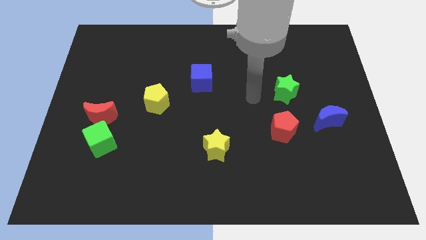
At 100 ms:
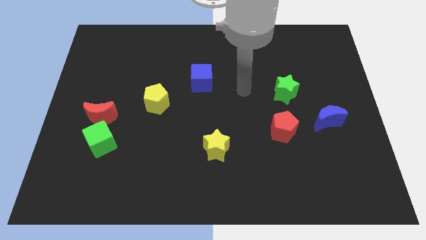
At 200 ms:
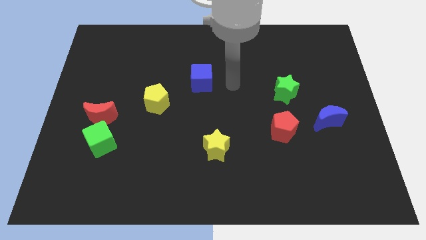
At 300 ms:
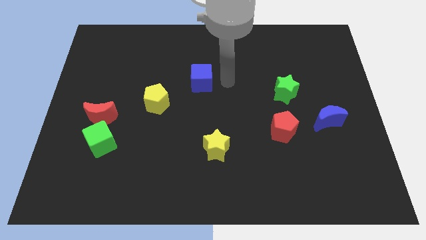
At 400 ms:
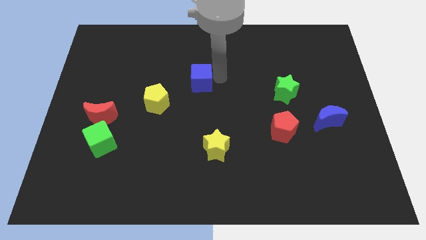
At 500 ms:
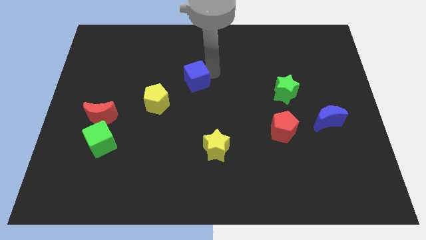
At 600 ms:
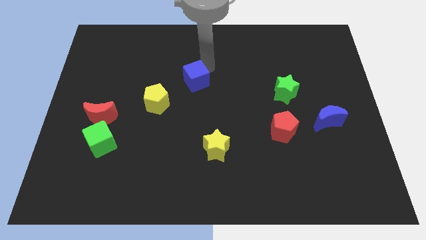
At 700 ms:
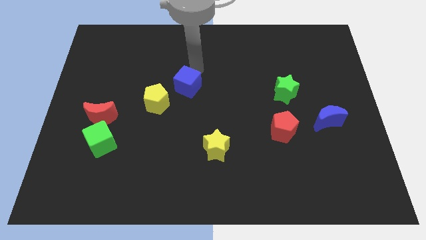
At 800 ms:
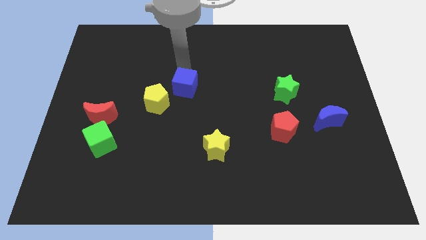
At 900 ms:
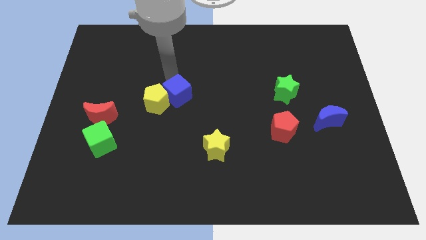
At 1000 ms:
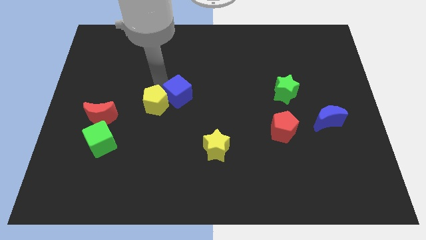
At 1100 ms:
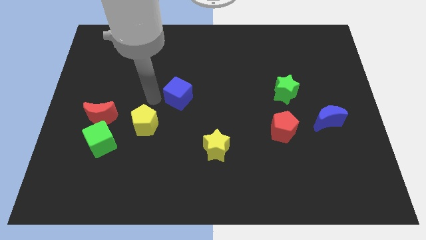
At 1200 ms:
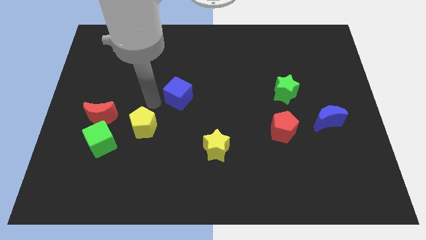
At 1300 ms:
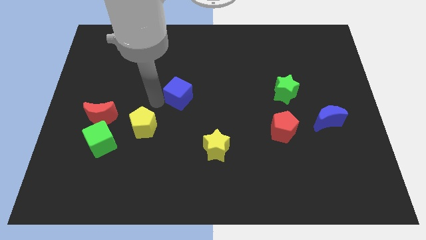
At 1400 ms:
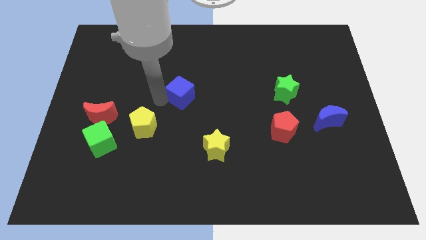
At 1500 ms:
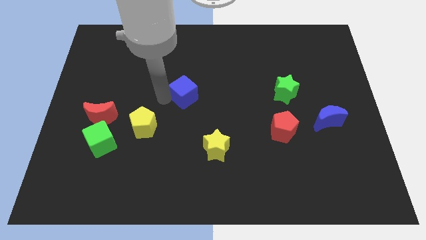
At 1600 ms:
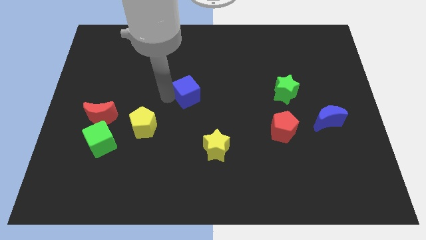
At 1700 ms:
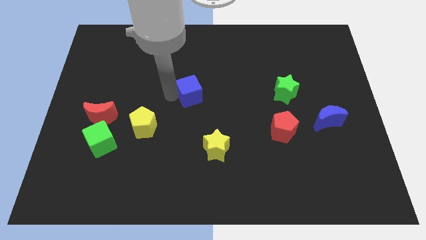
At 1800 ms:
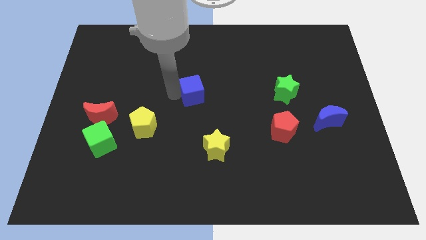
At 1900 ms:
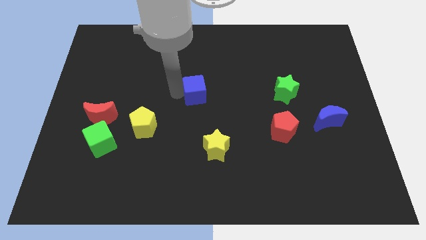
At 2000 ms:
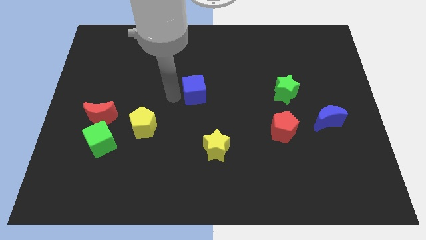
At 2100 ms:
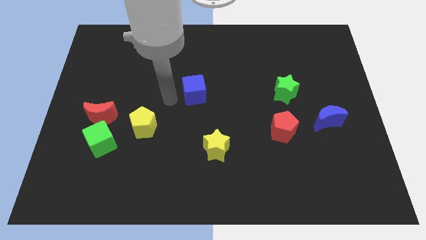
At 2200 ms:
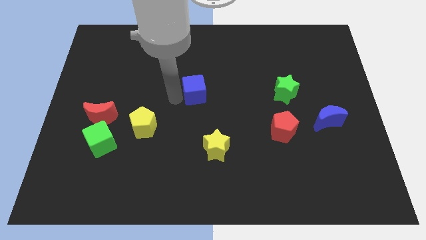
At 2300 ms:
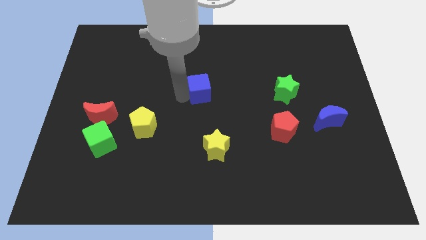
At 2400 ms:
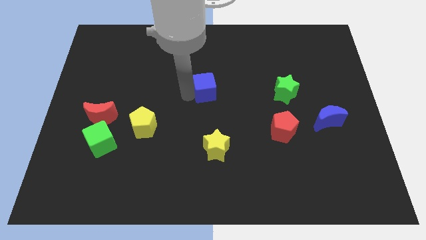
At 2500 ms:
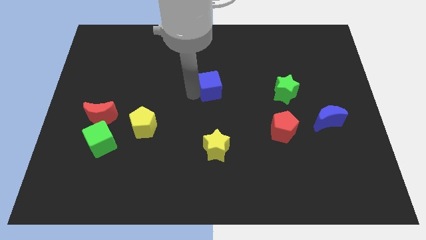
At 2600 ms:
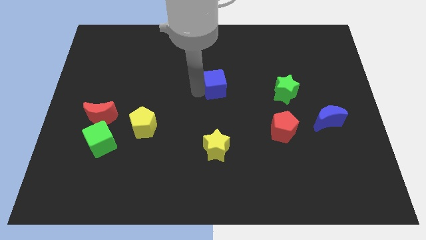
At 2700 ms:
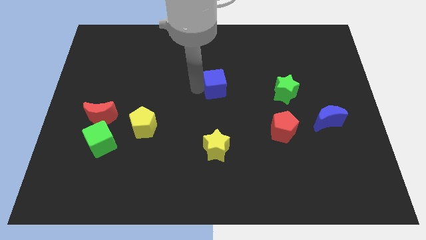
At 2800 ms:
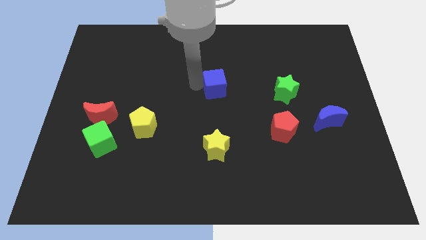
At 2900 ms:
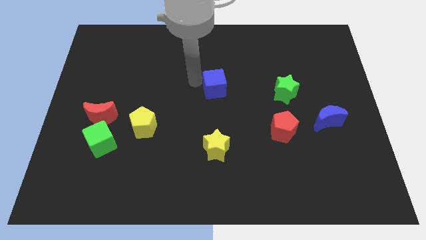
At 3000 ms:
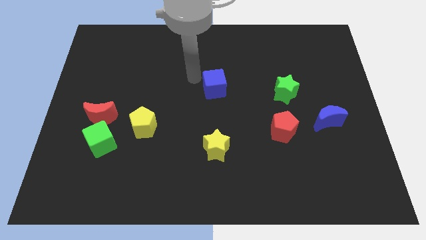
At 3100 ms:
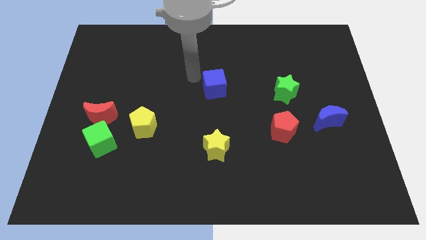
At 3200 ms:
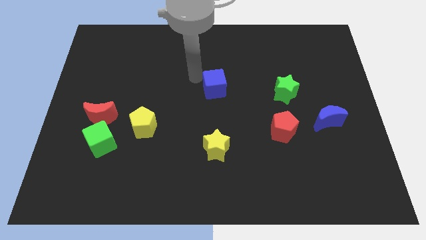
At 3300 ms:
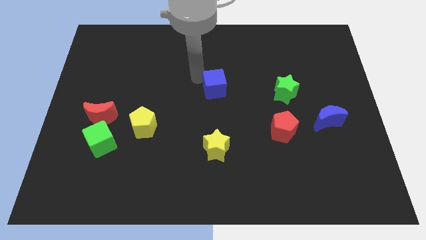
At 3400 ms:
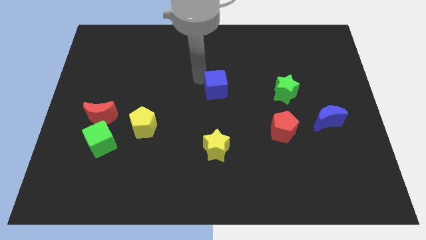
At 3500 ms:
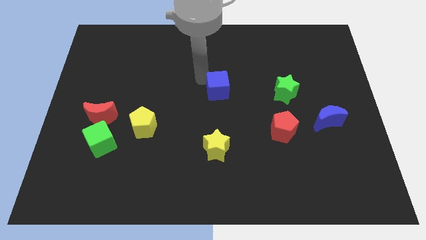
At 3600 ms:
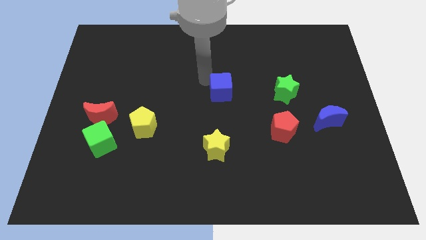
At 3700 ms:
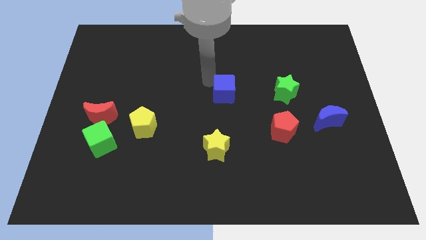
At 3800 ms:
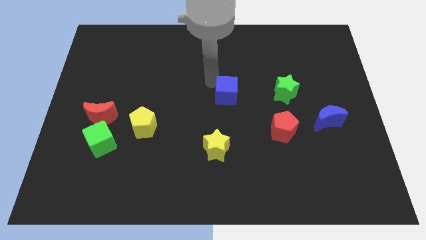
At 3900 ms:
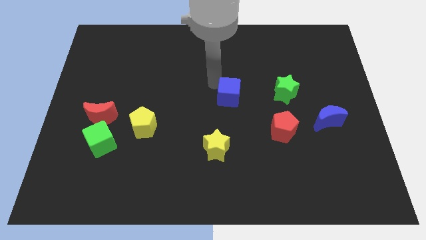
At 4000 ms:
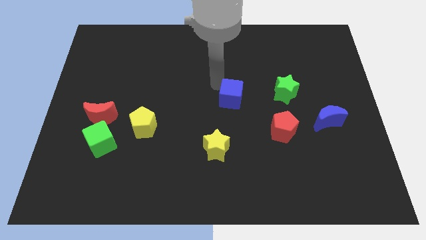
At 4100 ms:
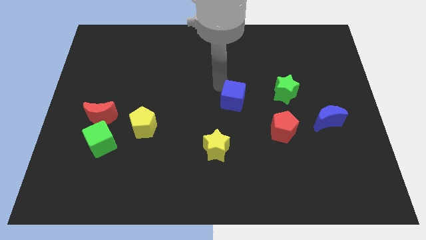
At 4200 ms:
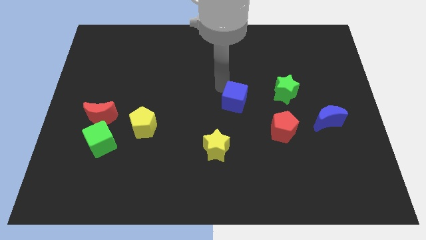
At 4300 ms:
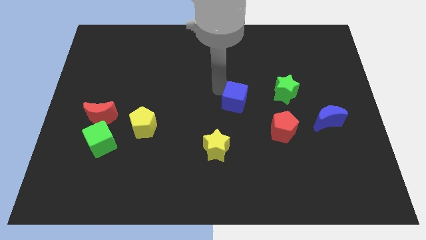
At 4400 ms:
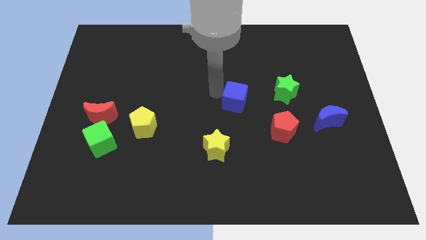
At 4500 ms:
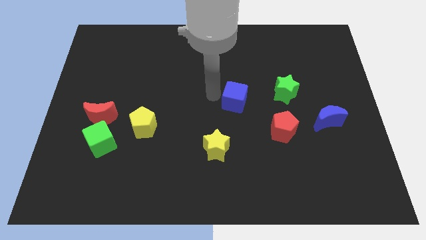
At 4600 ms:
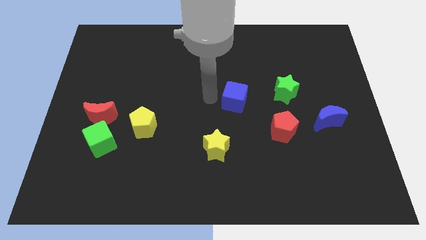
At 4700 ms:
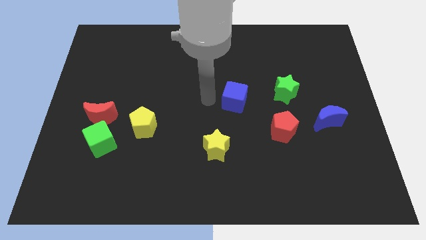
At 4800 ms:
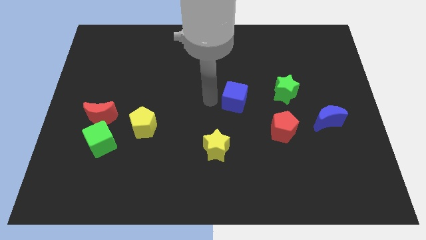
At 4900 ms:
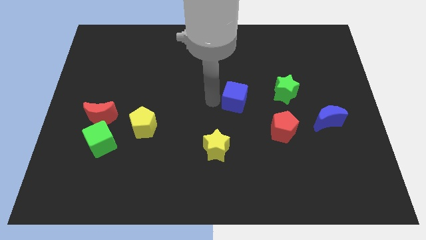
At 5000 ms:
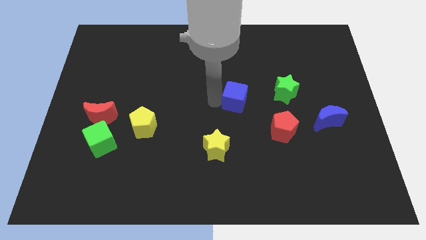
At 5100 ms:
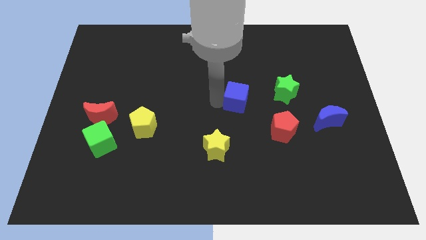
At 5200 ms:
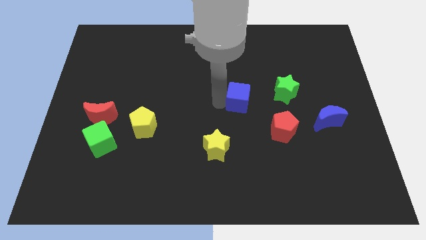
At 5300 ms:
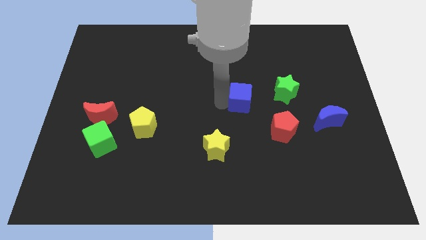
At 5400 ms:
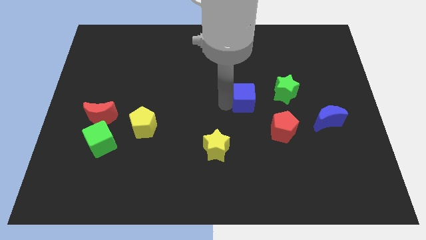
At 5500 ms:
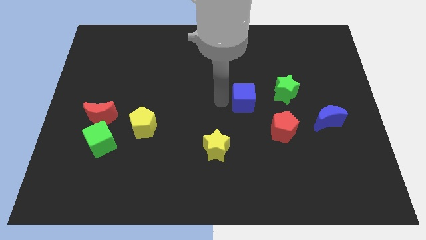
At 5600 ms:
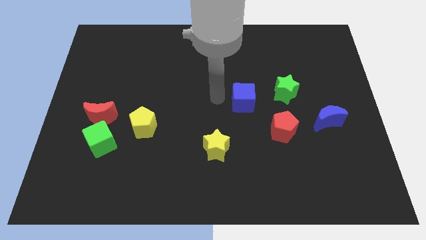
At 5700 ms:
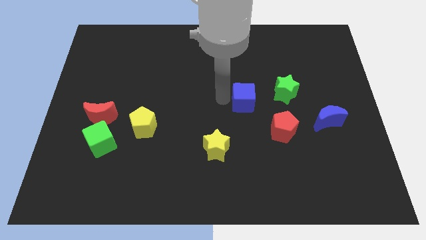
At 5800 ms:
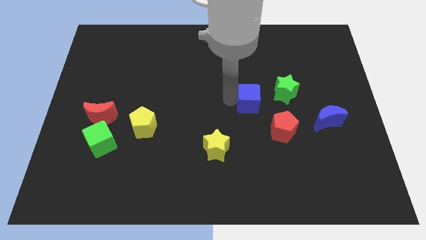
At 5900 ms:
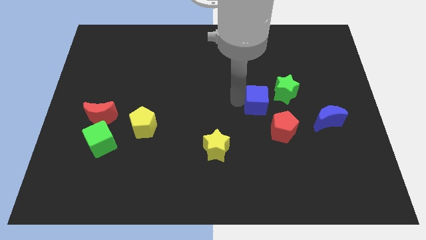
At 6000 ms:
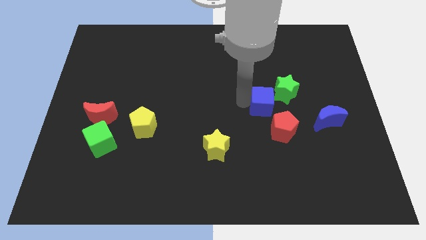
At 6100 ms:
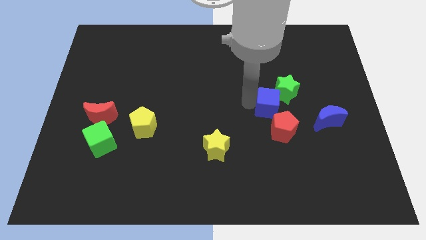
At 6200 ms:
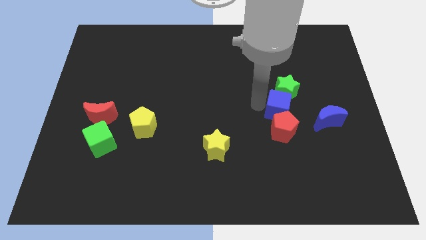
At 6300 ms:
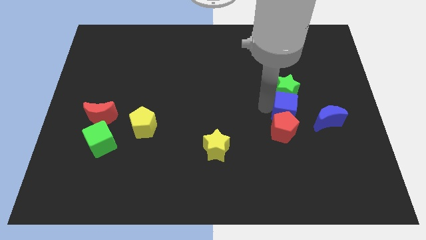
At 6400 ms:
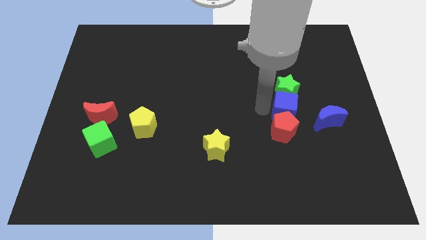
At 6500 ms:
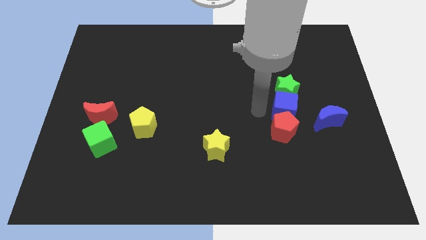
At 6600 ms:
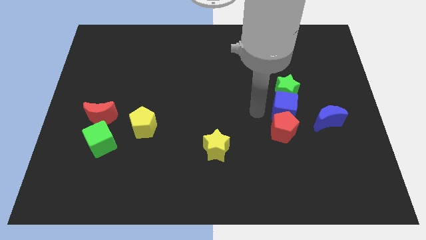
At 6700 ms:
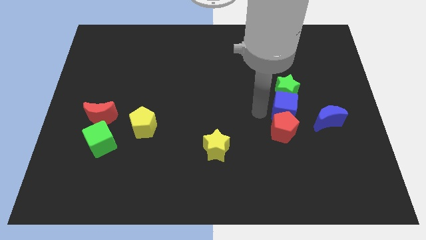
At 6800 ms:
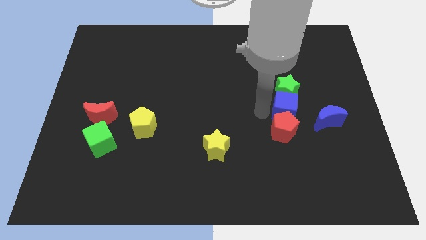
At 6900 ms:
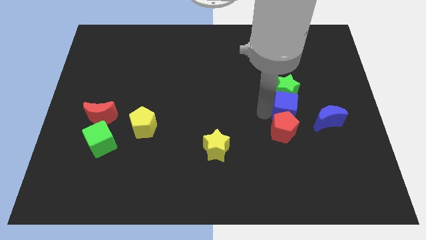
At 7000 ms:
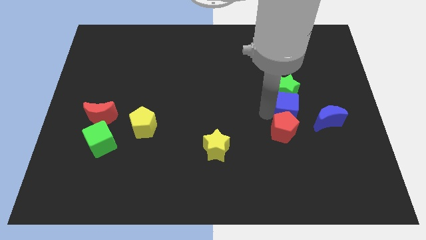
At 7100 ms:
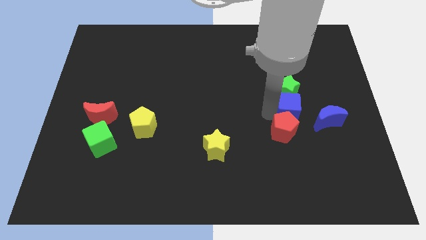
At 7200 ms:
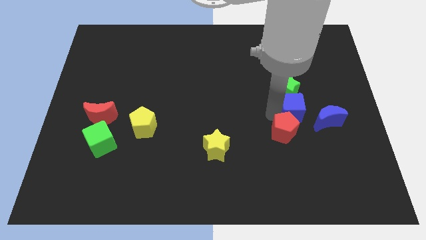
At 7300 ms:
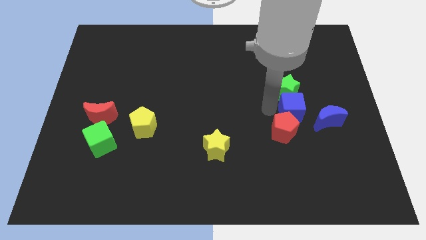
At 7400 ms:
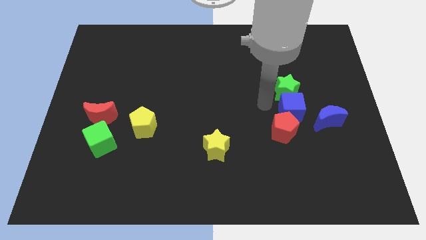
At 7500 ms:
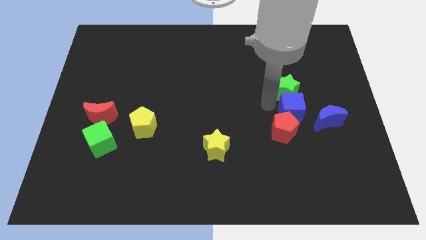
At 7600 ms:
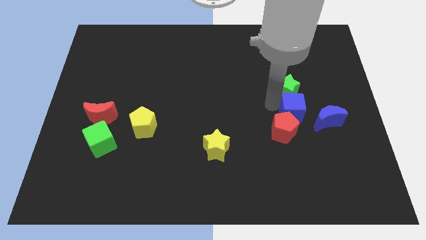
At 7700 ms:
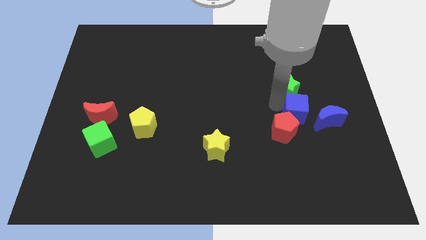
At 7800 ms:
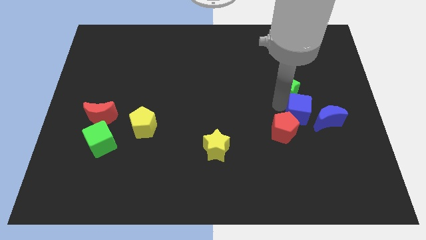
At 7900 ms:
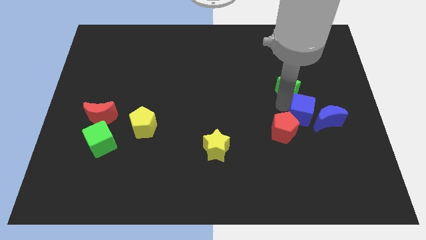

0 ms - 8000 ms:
move the blue cube towards the blue moon
